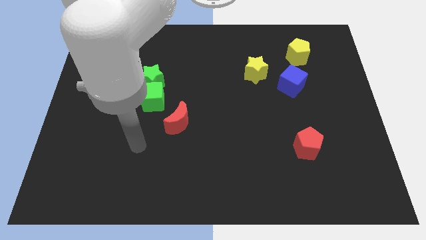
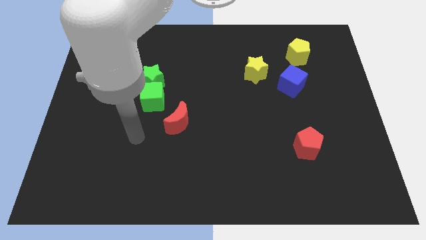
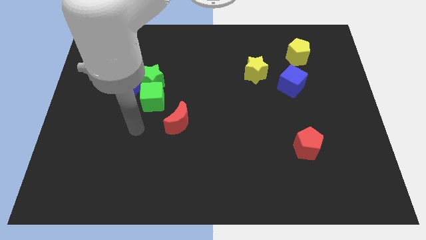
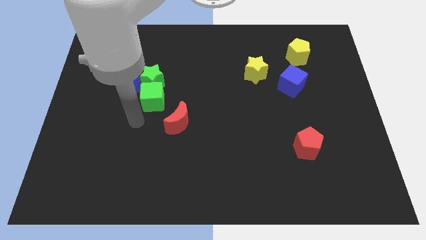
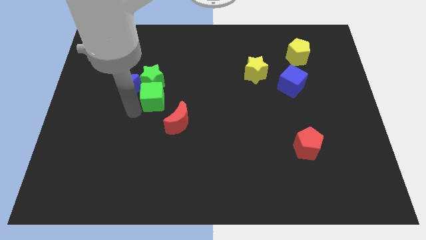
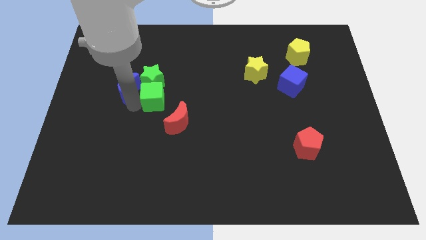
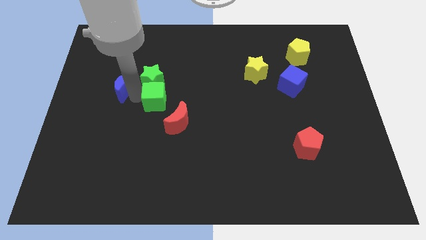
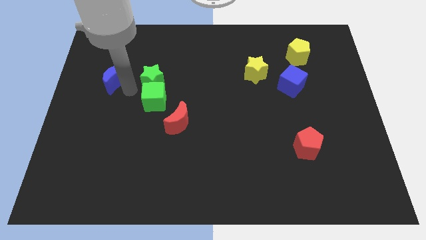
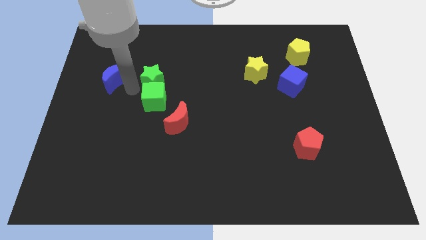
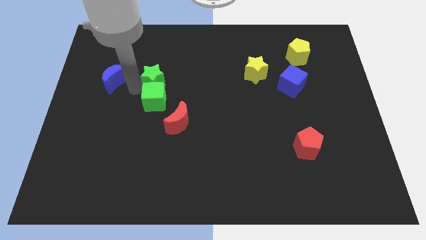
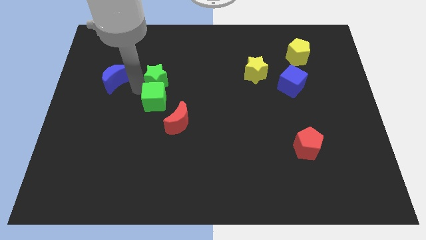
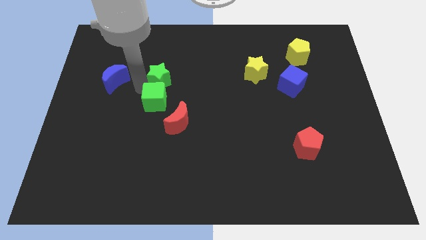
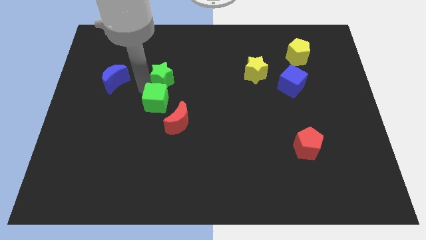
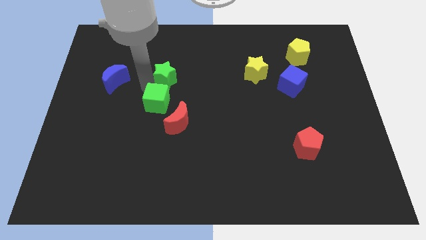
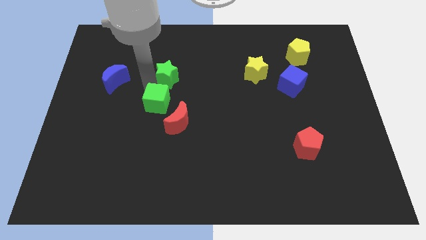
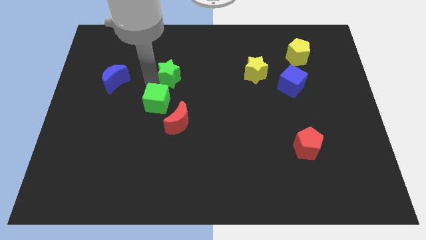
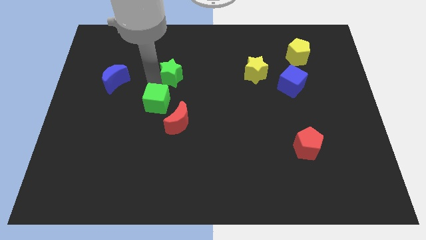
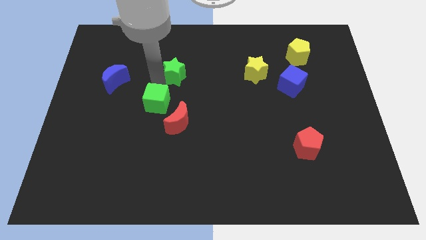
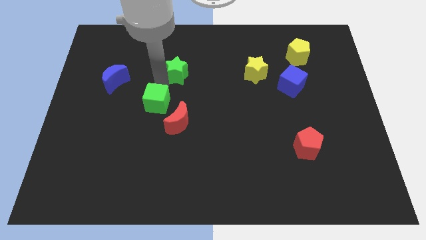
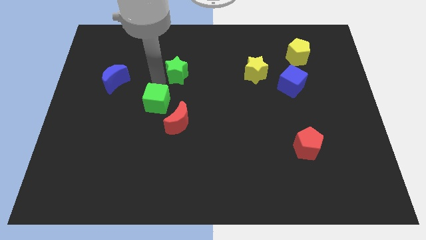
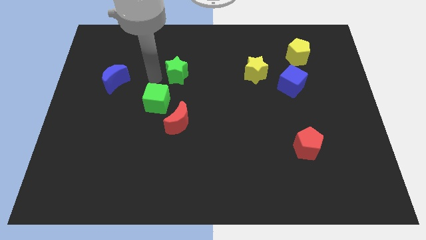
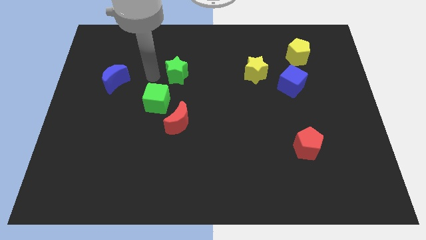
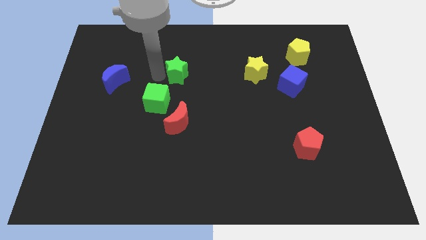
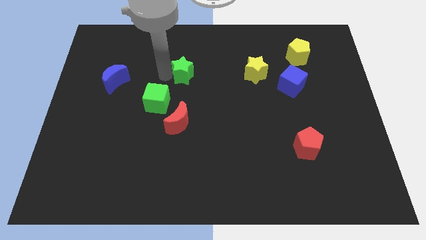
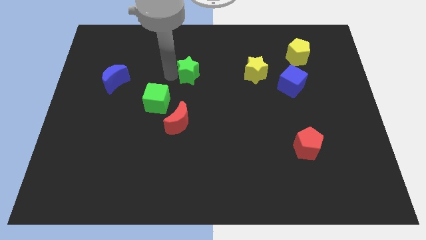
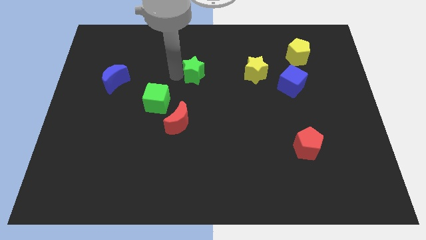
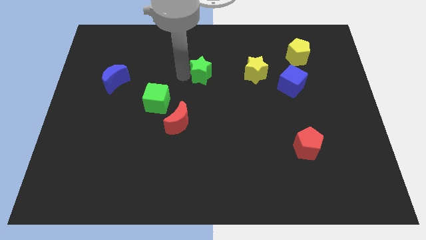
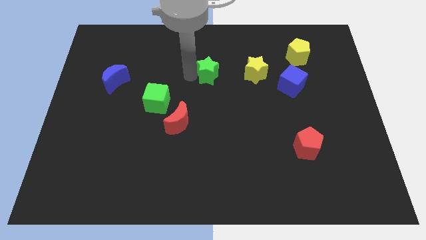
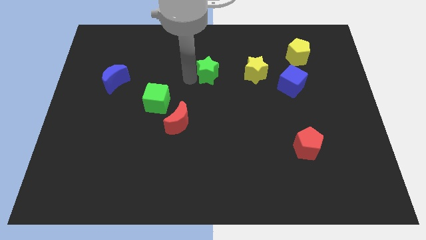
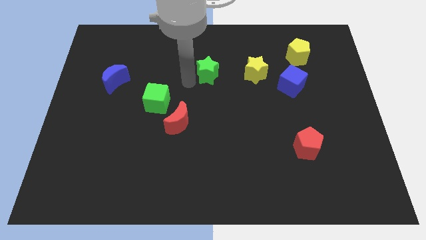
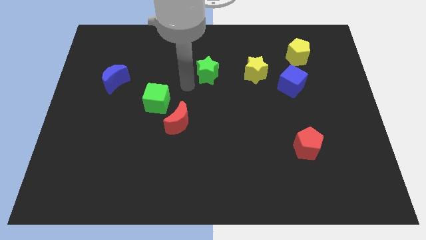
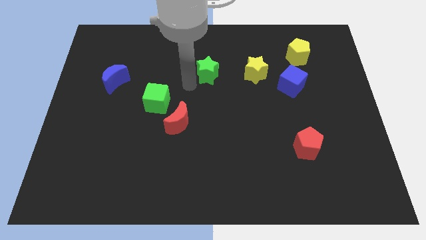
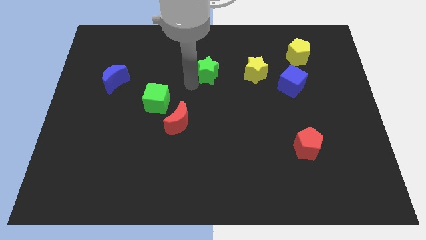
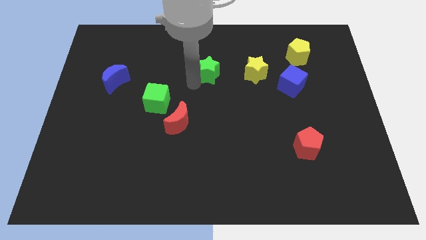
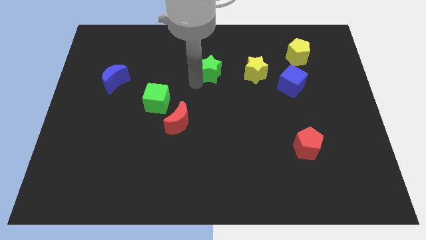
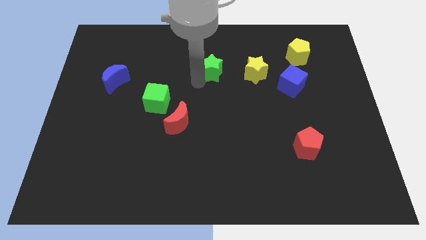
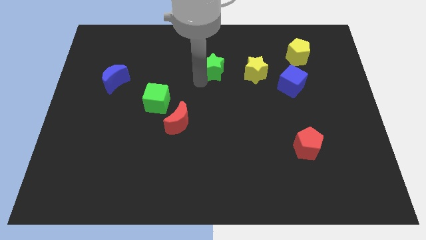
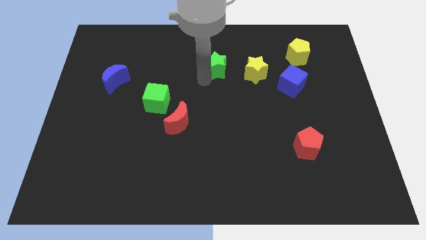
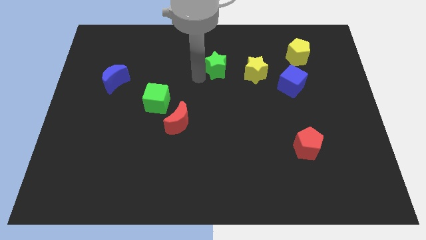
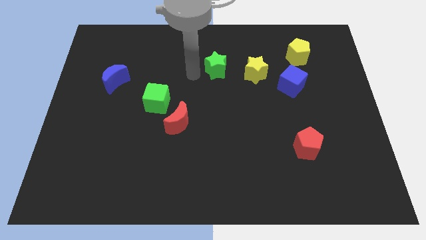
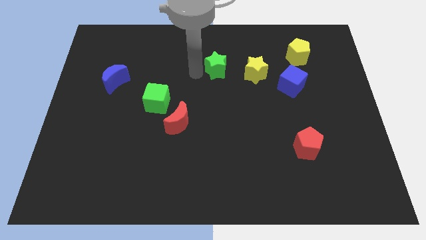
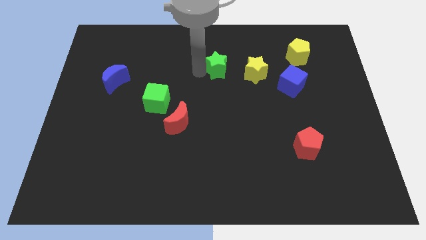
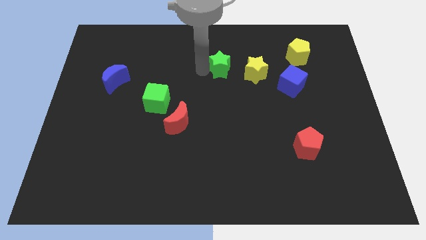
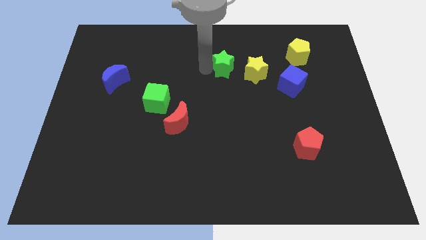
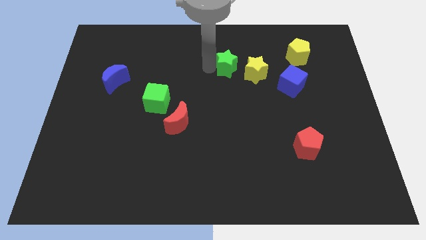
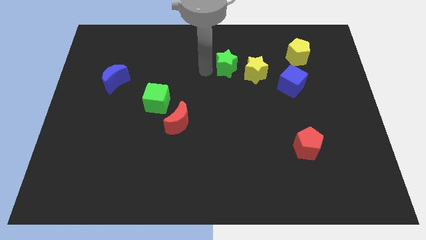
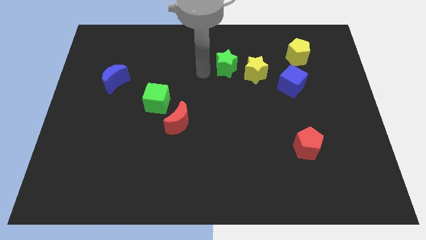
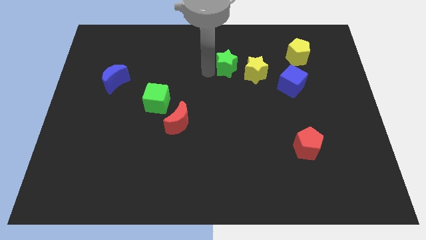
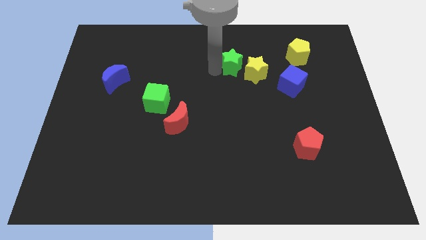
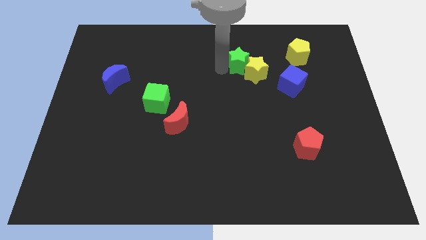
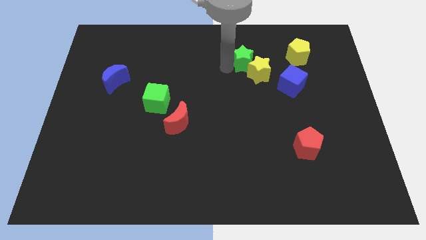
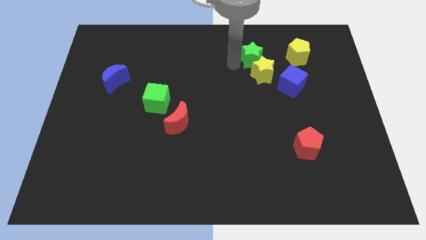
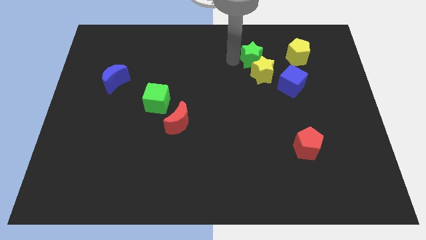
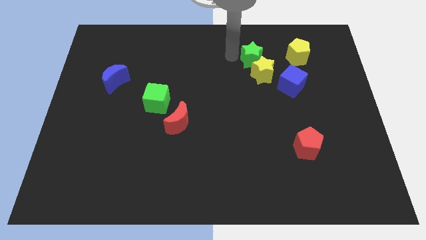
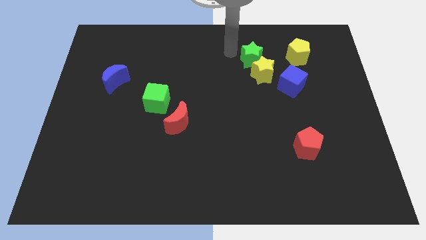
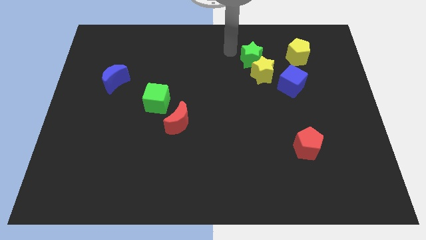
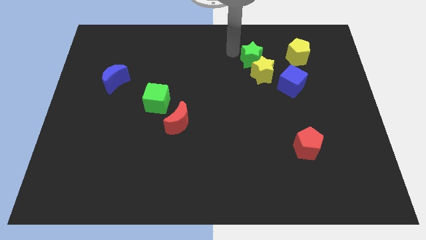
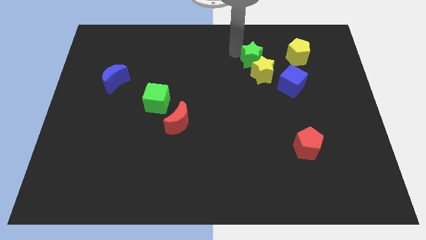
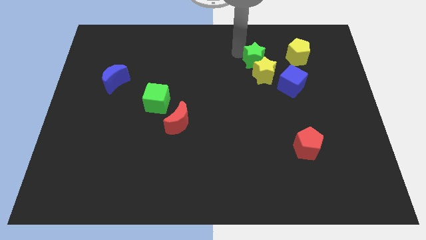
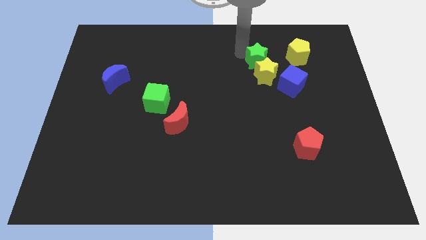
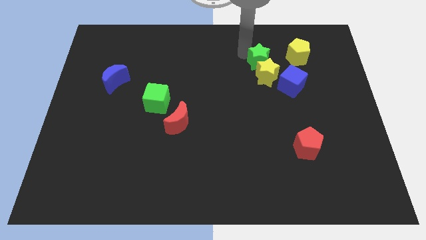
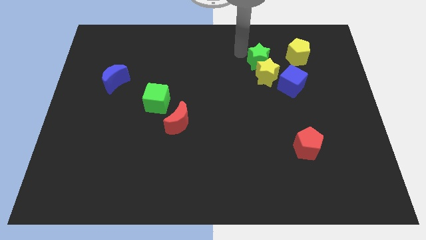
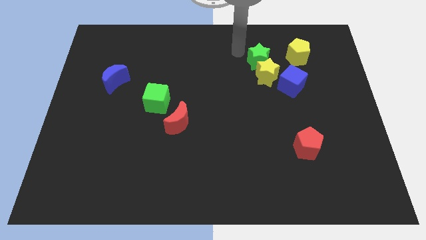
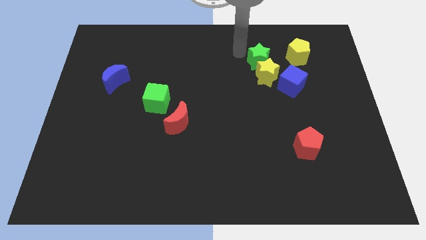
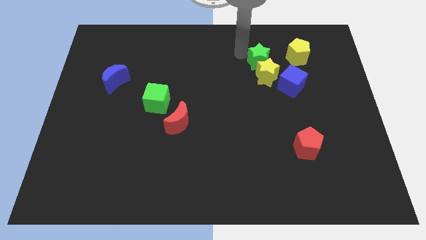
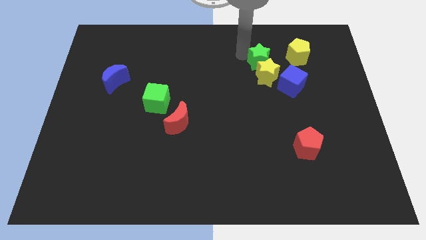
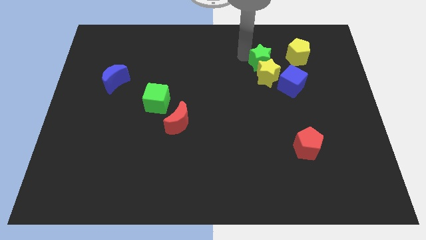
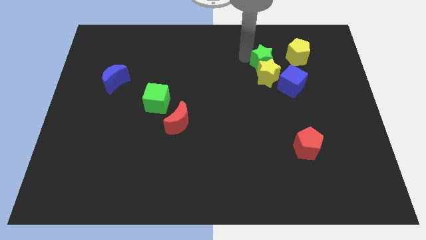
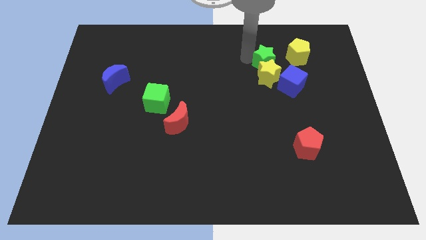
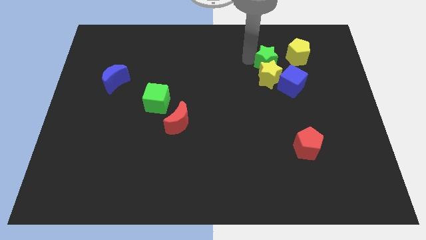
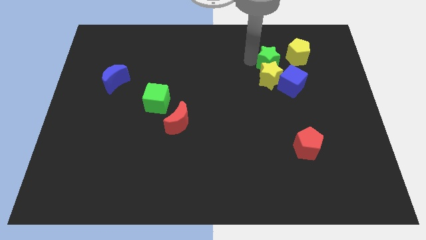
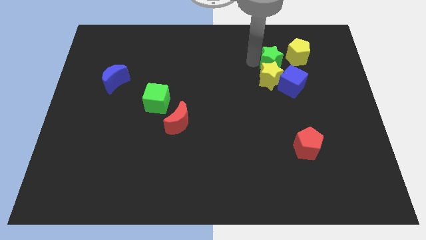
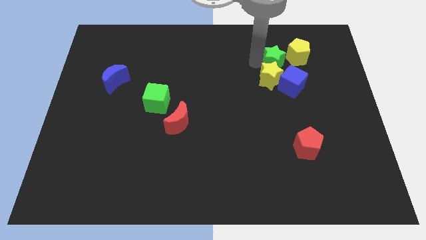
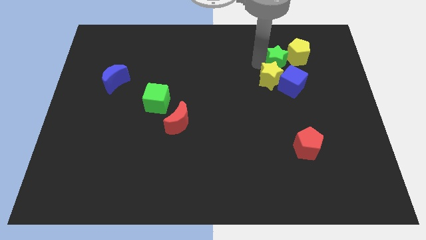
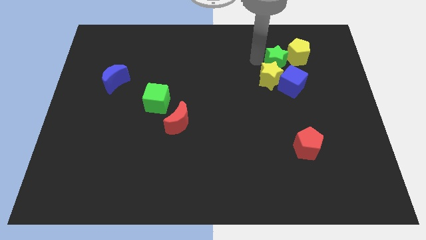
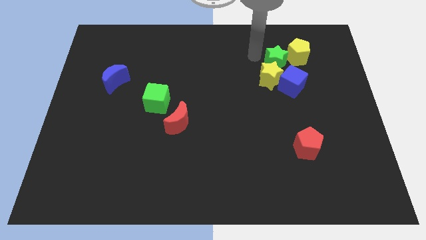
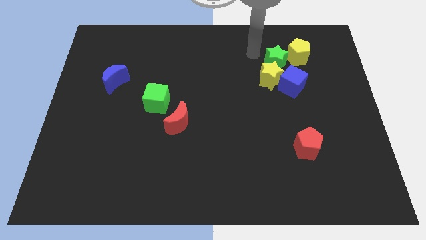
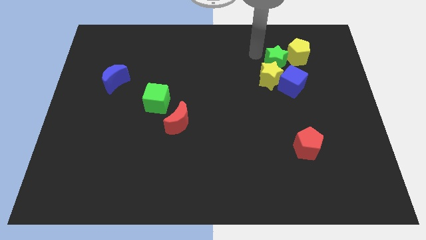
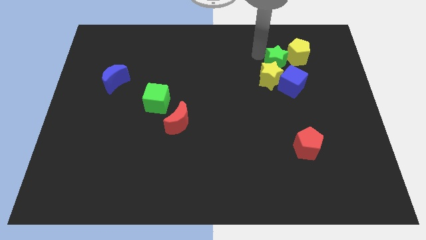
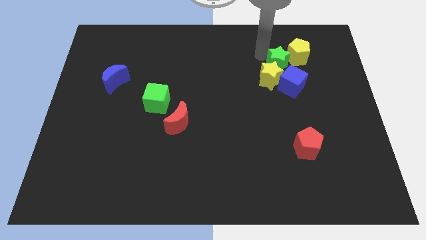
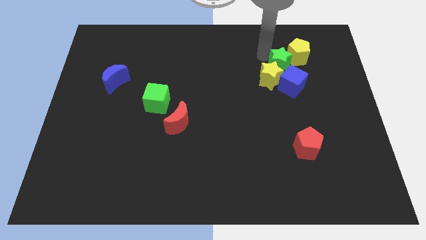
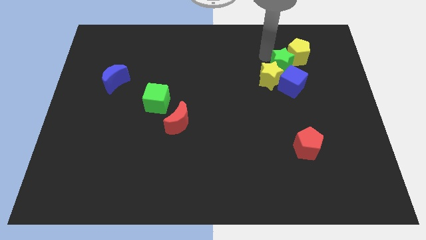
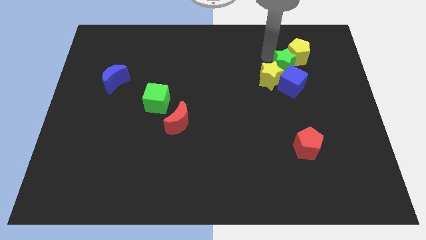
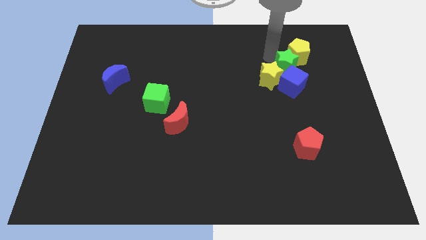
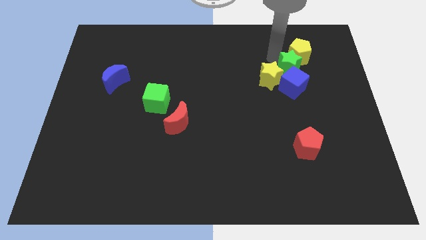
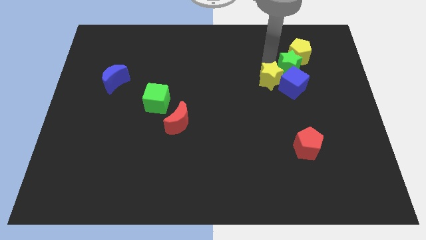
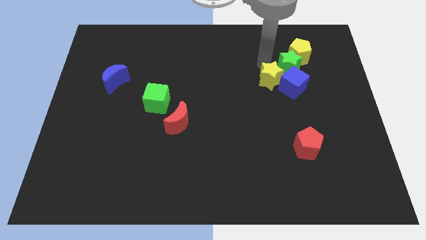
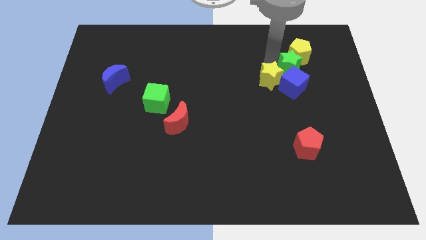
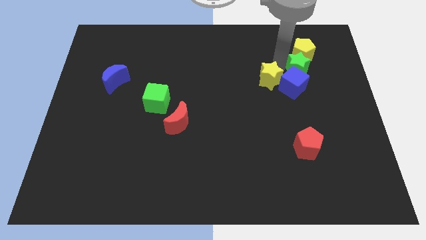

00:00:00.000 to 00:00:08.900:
move the green star diagonally down and to the right of the yellow pentagon
